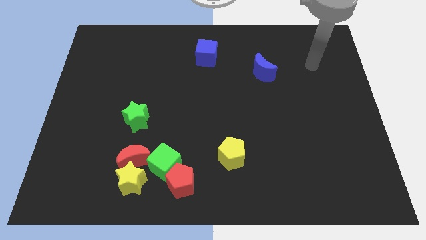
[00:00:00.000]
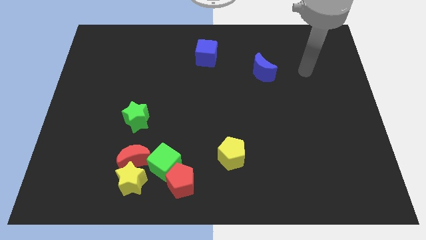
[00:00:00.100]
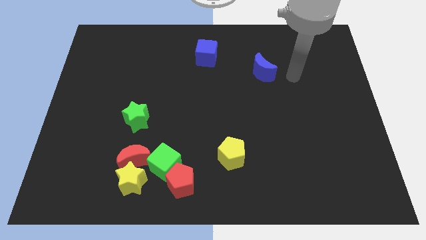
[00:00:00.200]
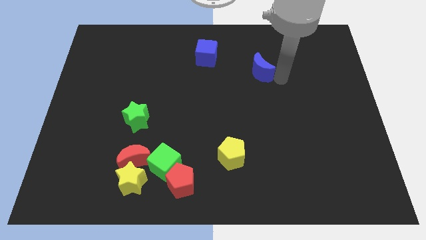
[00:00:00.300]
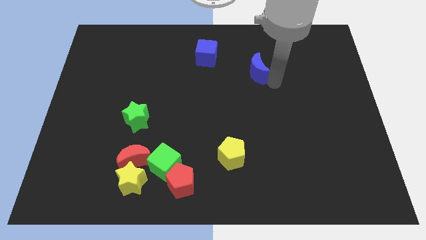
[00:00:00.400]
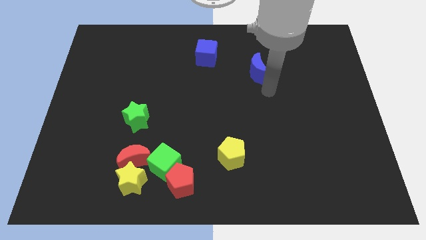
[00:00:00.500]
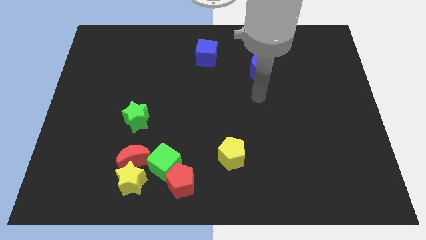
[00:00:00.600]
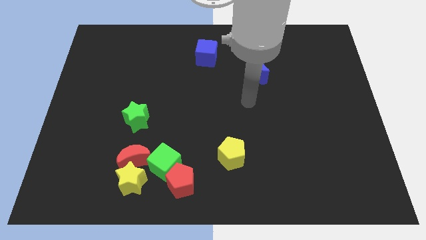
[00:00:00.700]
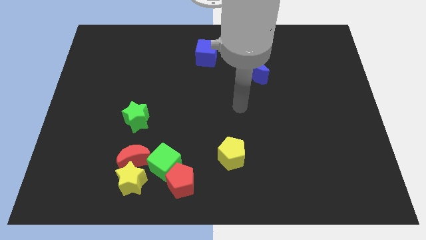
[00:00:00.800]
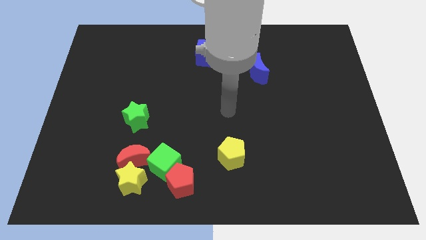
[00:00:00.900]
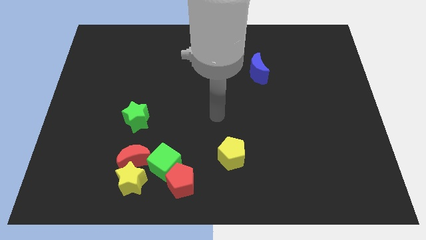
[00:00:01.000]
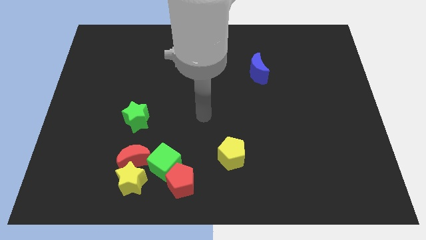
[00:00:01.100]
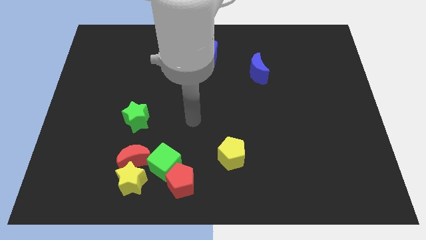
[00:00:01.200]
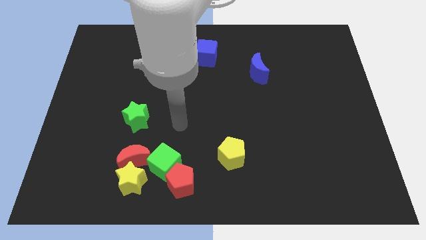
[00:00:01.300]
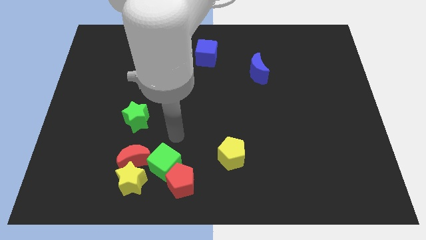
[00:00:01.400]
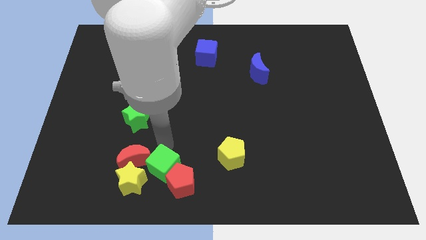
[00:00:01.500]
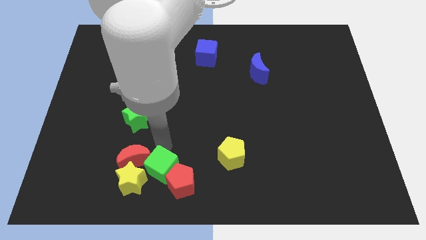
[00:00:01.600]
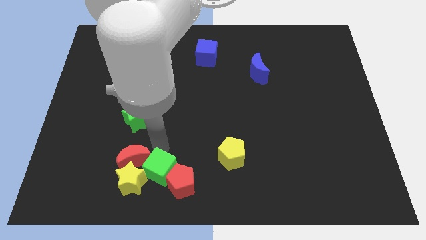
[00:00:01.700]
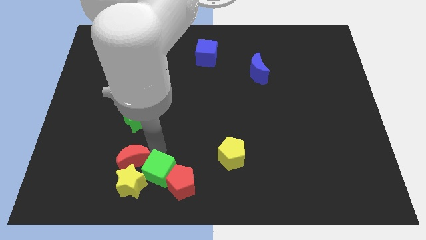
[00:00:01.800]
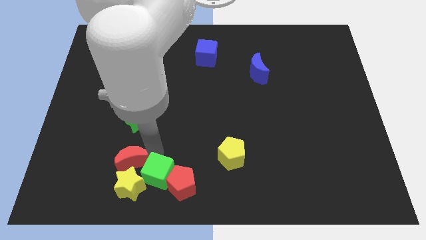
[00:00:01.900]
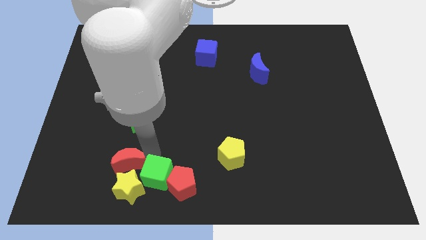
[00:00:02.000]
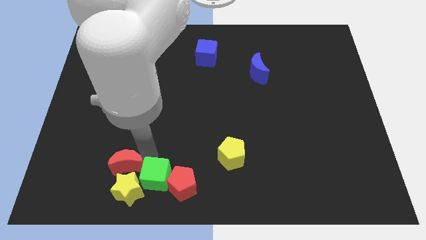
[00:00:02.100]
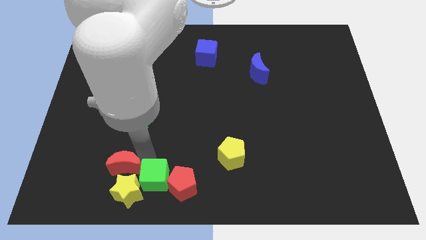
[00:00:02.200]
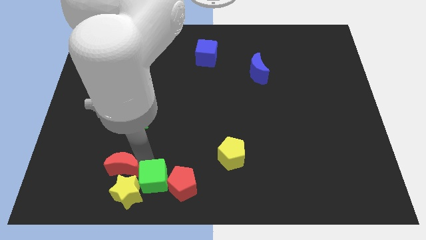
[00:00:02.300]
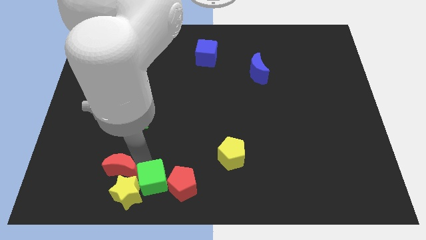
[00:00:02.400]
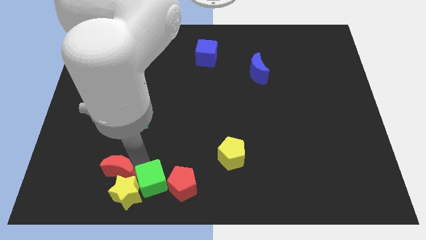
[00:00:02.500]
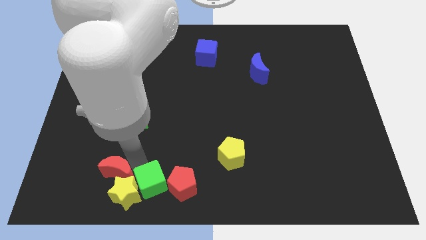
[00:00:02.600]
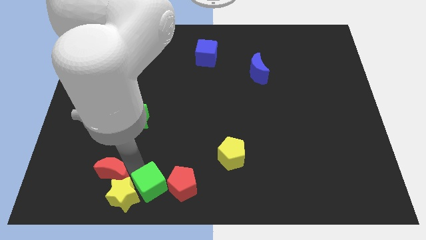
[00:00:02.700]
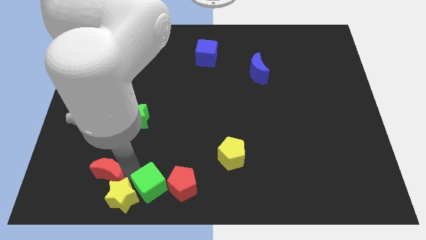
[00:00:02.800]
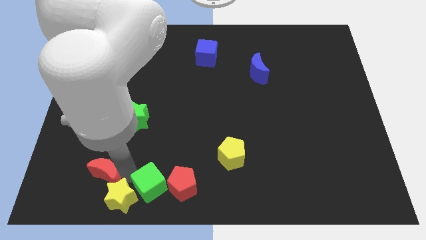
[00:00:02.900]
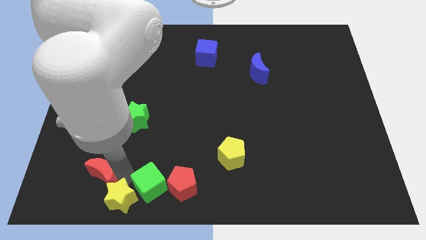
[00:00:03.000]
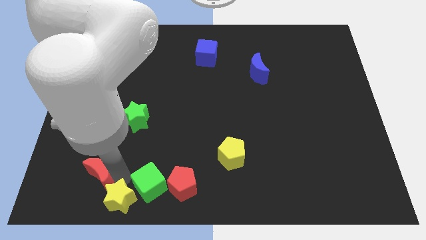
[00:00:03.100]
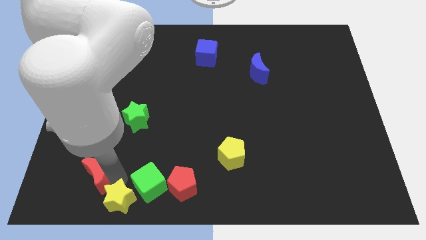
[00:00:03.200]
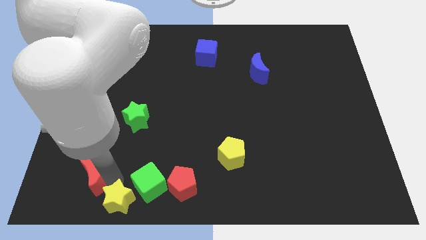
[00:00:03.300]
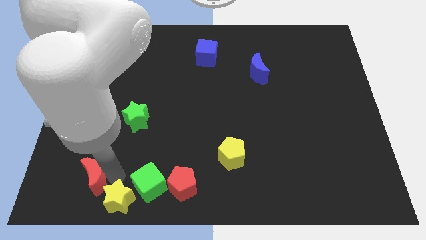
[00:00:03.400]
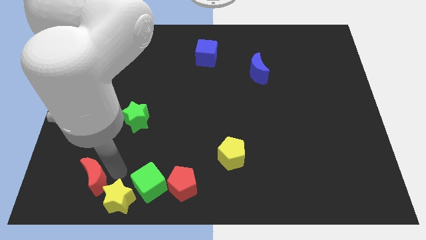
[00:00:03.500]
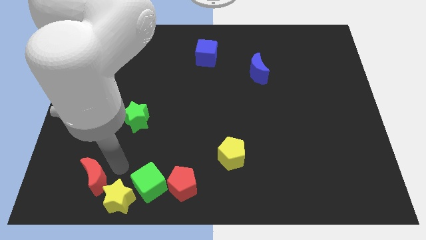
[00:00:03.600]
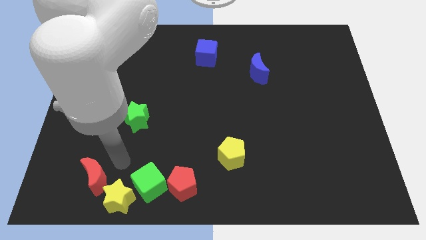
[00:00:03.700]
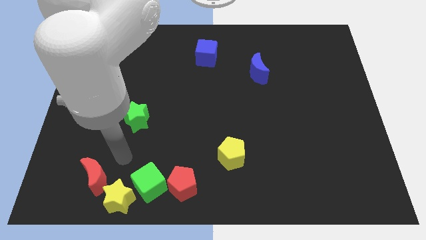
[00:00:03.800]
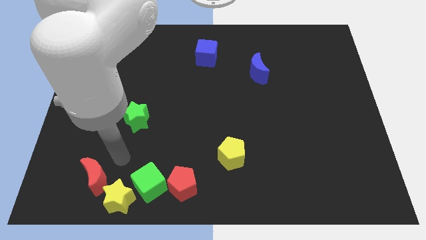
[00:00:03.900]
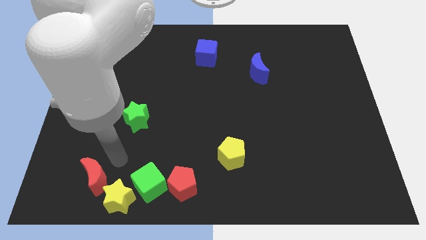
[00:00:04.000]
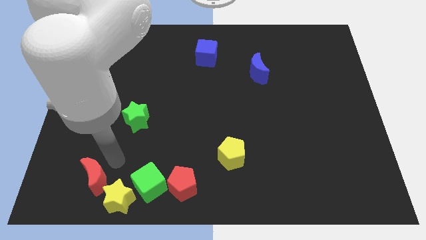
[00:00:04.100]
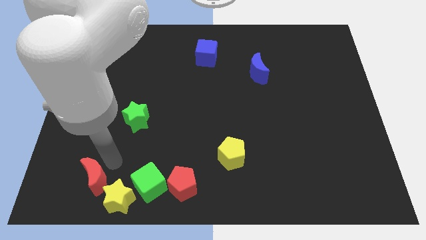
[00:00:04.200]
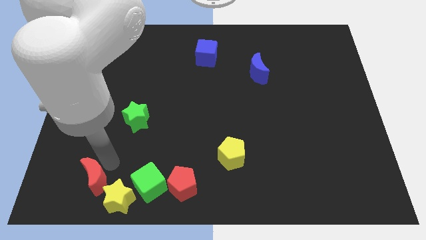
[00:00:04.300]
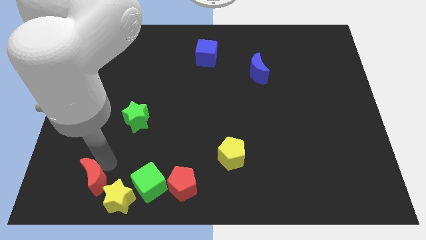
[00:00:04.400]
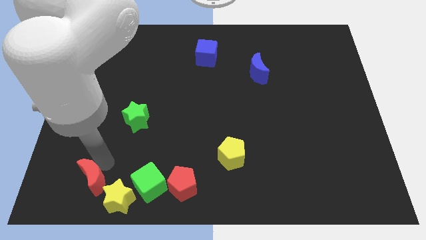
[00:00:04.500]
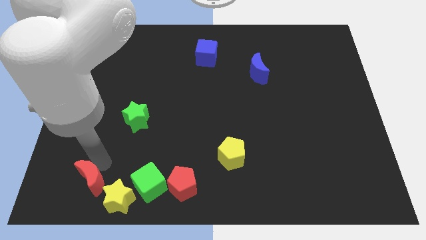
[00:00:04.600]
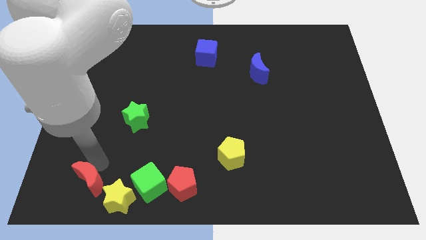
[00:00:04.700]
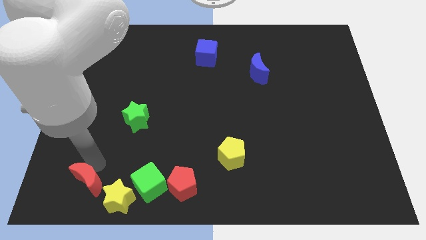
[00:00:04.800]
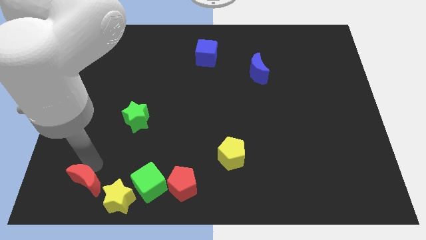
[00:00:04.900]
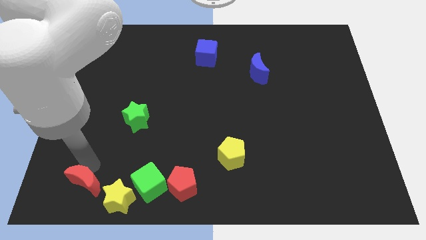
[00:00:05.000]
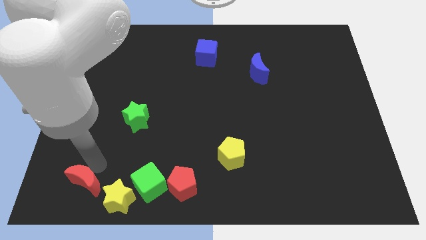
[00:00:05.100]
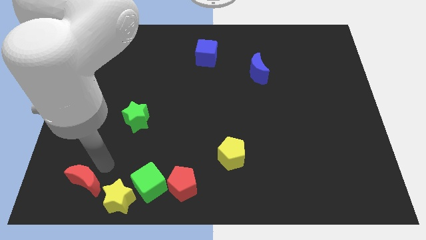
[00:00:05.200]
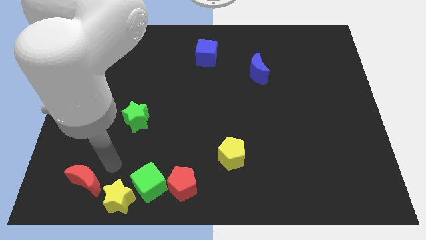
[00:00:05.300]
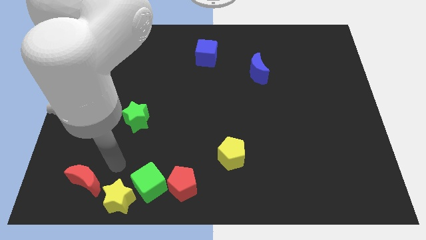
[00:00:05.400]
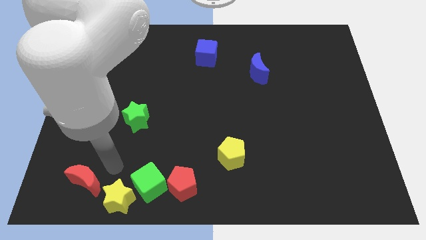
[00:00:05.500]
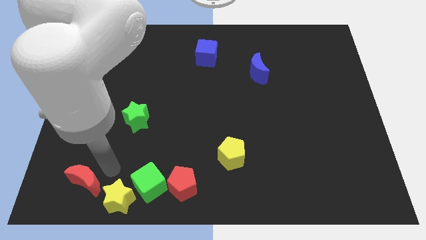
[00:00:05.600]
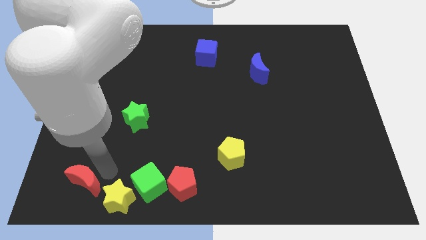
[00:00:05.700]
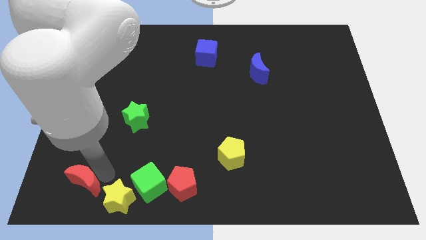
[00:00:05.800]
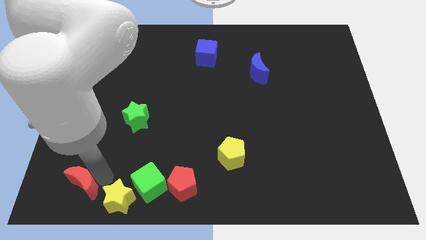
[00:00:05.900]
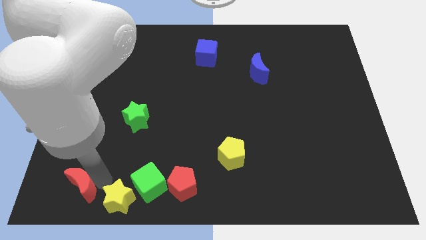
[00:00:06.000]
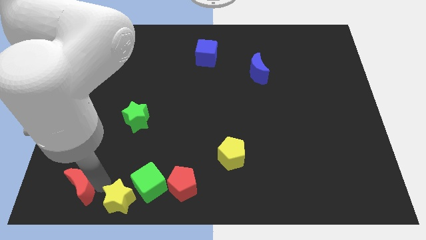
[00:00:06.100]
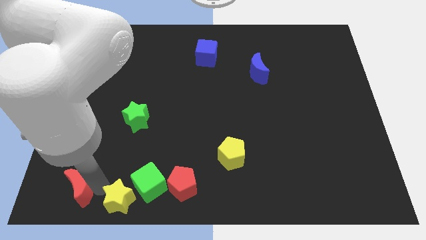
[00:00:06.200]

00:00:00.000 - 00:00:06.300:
slide the red moon to the lower left corner

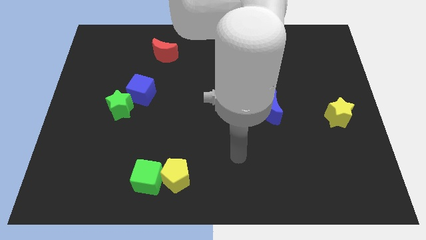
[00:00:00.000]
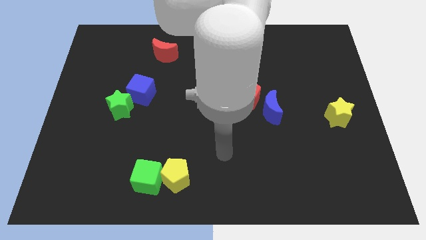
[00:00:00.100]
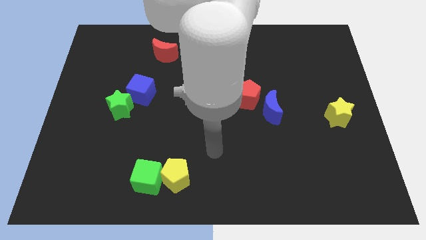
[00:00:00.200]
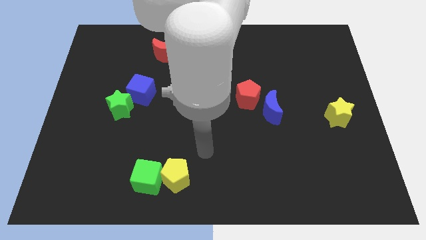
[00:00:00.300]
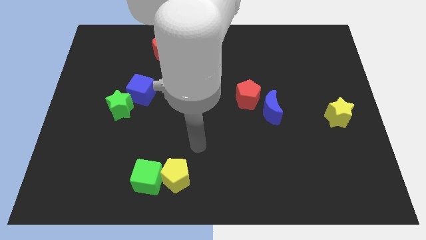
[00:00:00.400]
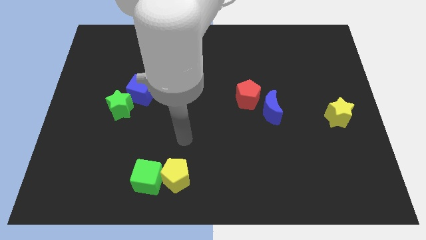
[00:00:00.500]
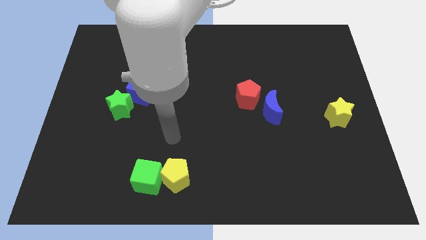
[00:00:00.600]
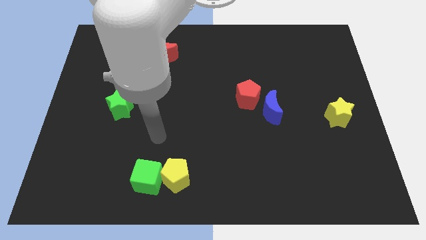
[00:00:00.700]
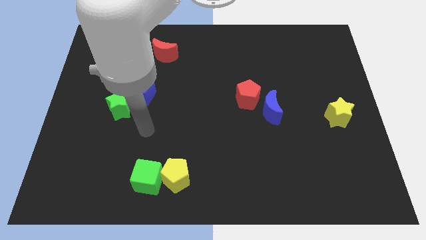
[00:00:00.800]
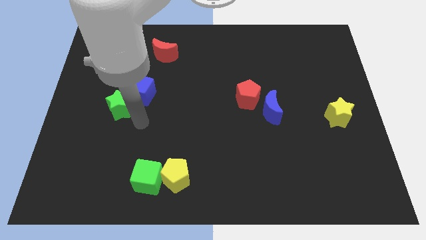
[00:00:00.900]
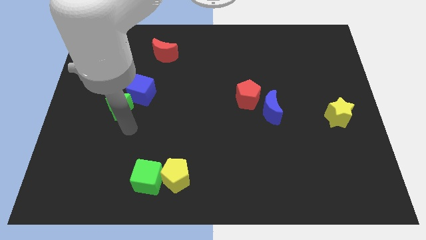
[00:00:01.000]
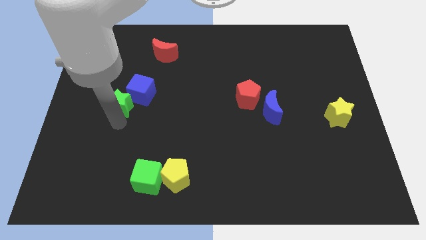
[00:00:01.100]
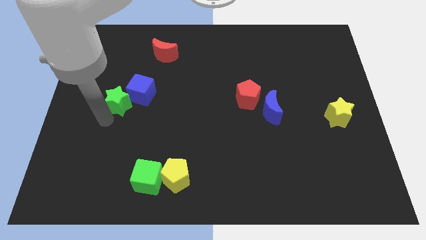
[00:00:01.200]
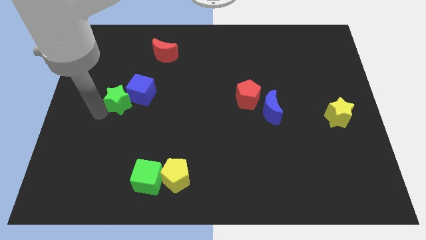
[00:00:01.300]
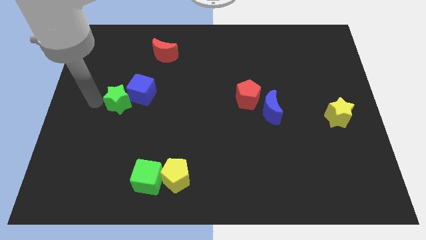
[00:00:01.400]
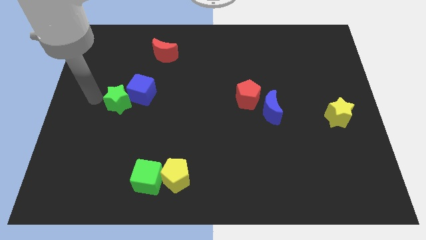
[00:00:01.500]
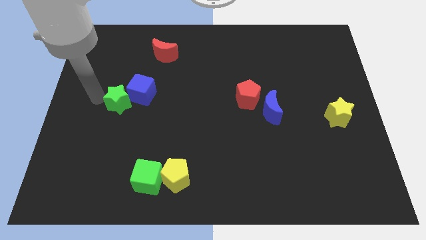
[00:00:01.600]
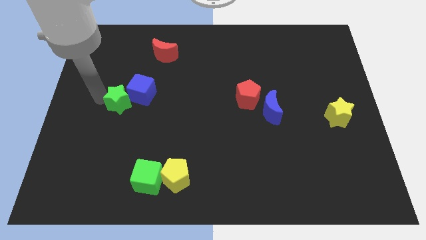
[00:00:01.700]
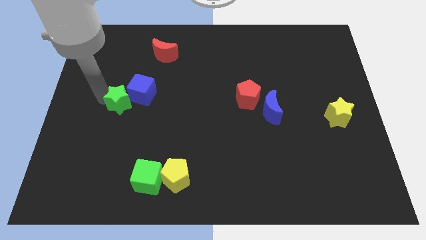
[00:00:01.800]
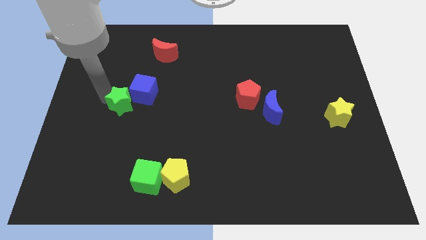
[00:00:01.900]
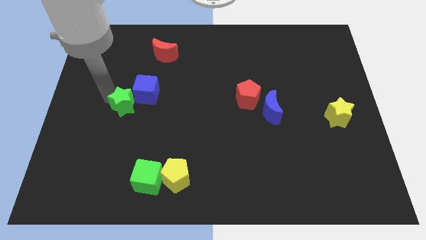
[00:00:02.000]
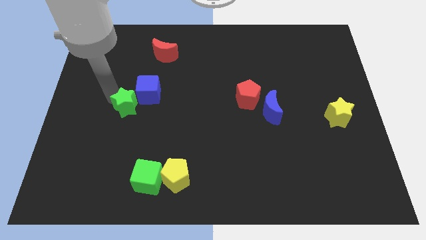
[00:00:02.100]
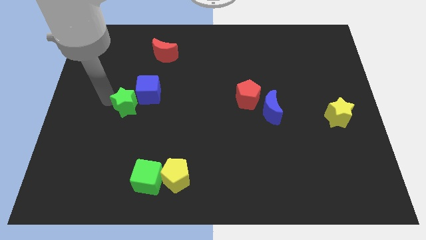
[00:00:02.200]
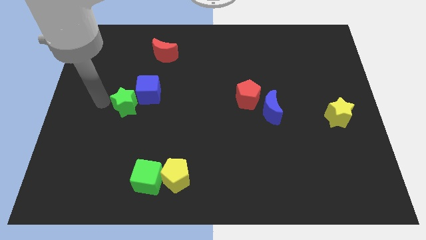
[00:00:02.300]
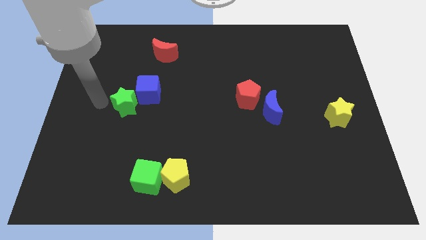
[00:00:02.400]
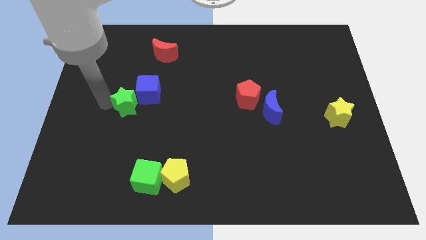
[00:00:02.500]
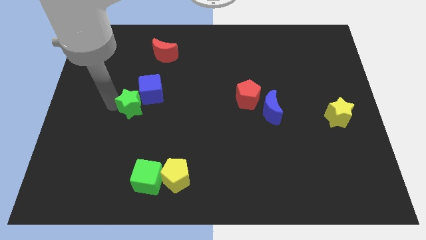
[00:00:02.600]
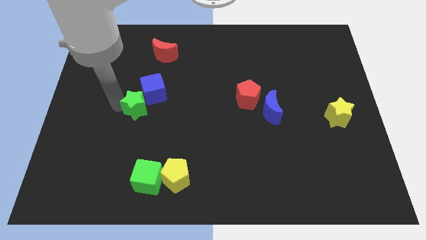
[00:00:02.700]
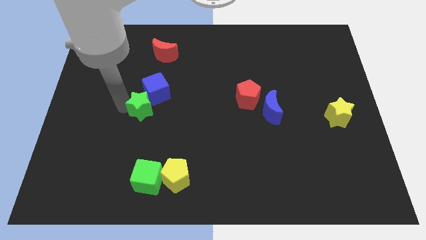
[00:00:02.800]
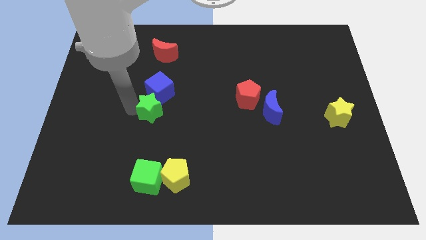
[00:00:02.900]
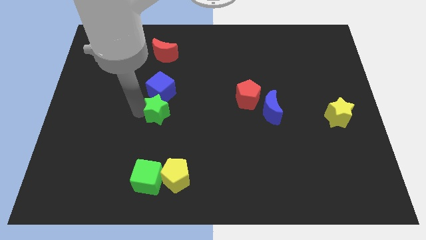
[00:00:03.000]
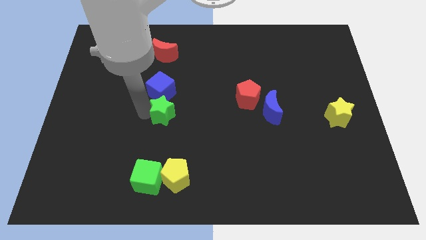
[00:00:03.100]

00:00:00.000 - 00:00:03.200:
push the green star to the center of the board
